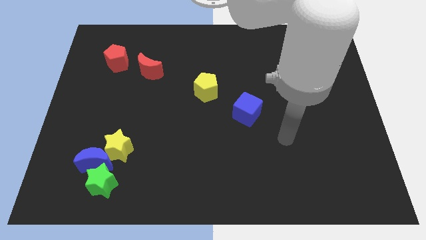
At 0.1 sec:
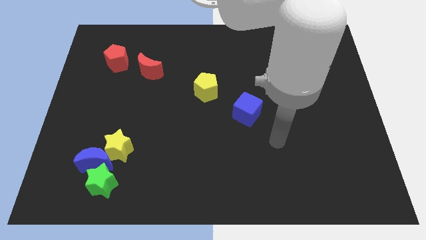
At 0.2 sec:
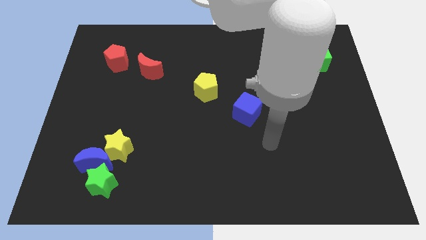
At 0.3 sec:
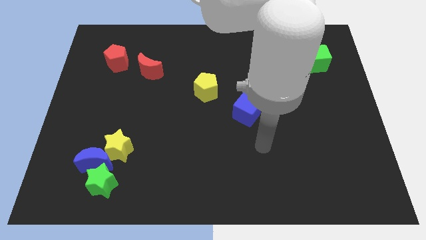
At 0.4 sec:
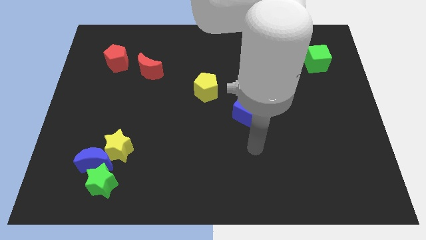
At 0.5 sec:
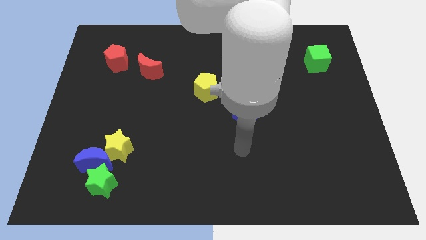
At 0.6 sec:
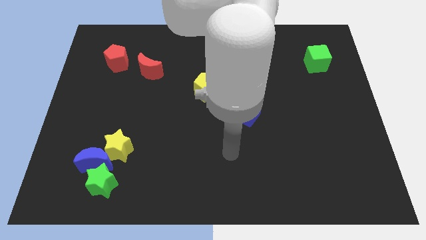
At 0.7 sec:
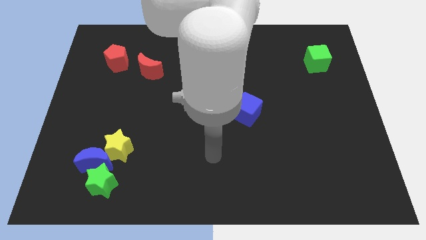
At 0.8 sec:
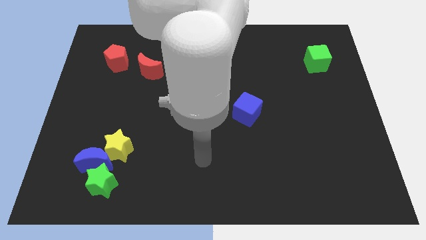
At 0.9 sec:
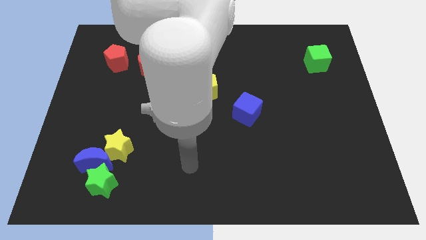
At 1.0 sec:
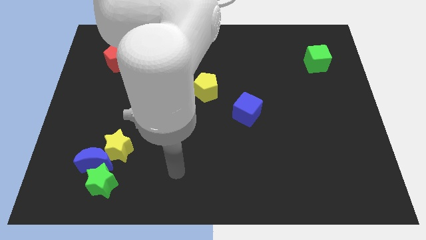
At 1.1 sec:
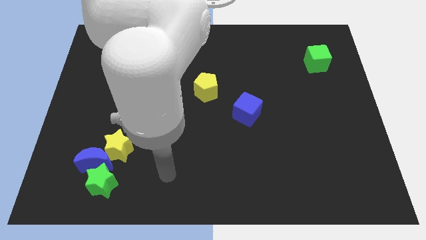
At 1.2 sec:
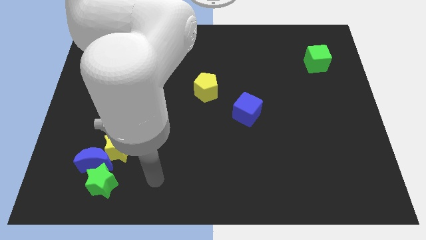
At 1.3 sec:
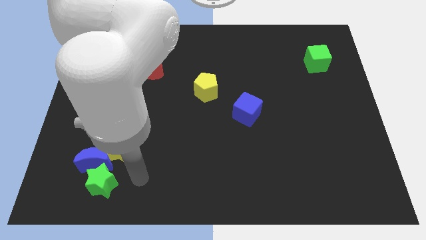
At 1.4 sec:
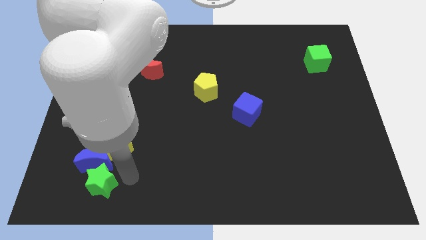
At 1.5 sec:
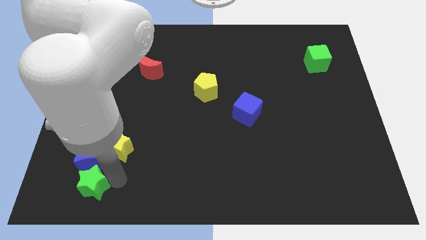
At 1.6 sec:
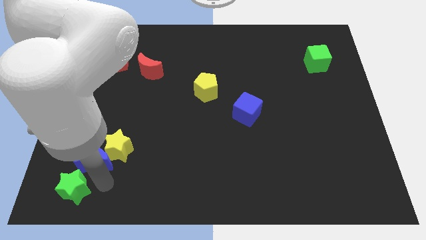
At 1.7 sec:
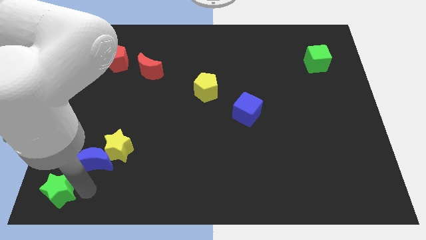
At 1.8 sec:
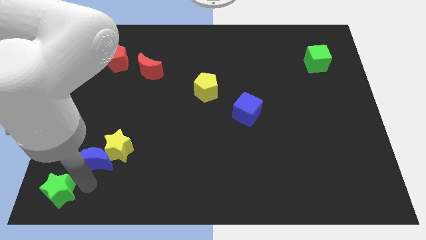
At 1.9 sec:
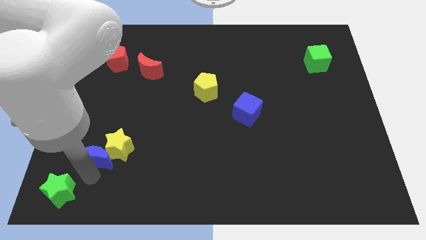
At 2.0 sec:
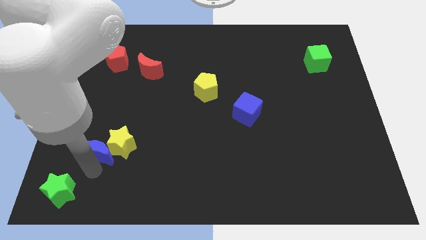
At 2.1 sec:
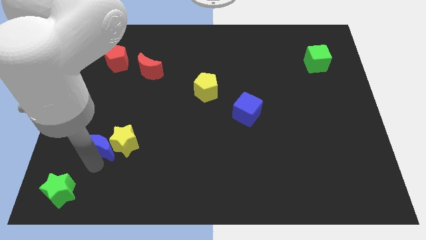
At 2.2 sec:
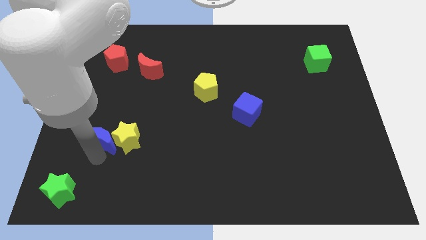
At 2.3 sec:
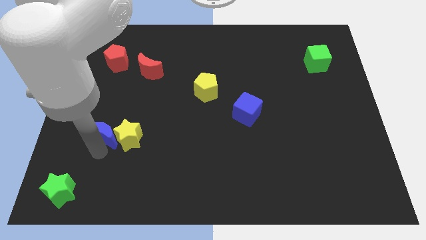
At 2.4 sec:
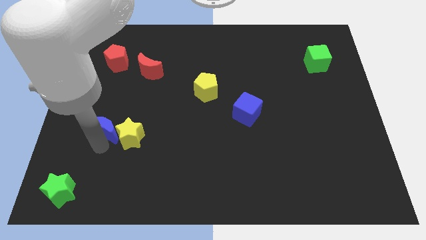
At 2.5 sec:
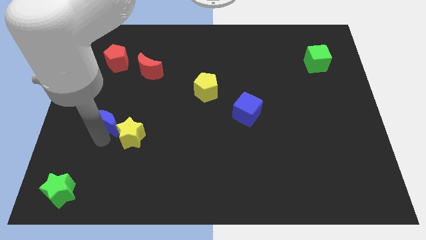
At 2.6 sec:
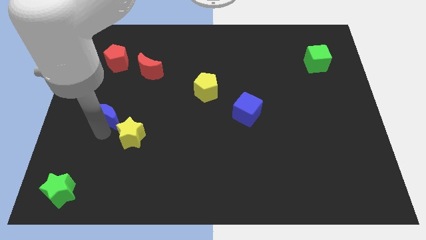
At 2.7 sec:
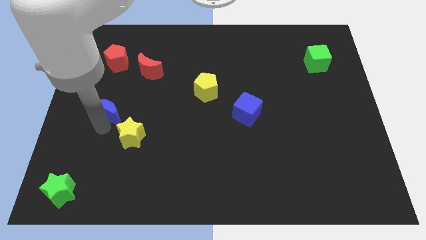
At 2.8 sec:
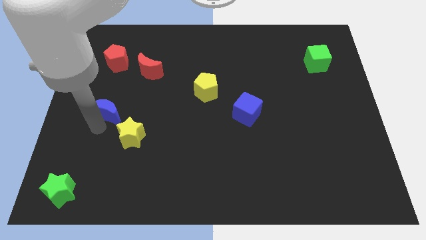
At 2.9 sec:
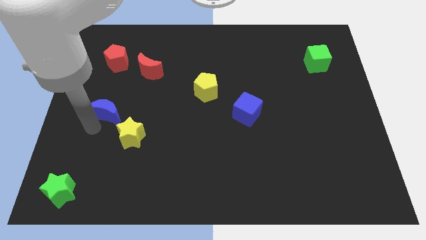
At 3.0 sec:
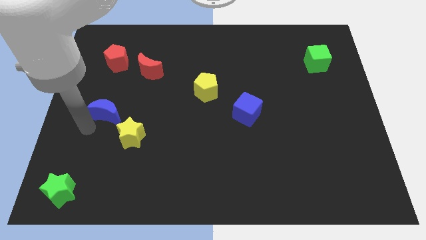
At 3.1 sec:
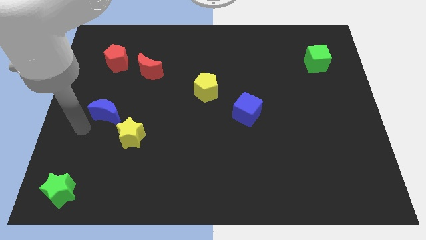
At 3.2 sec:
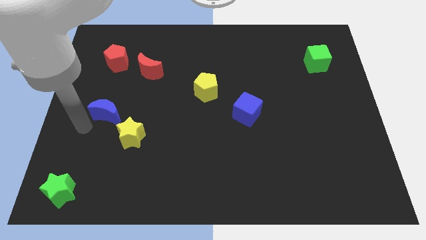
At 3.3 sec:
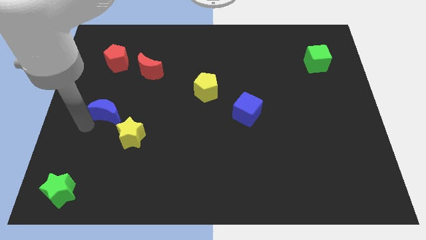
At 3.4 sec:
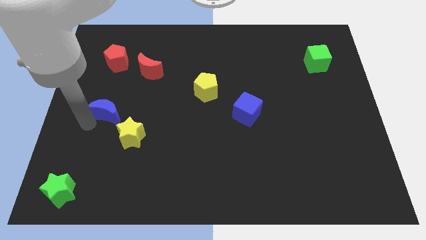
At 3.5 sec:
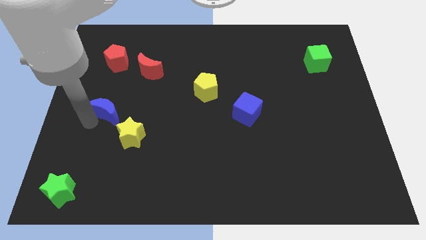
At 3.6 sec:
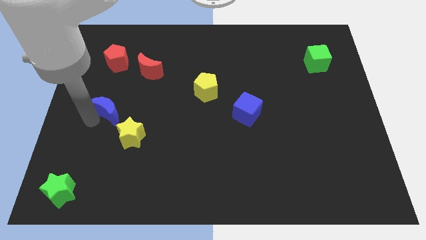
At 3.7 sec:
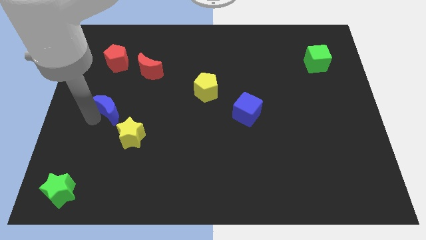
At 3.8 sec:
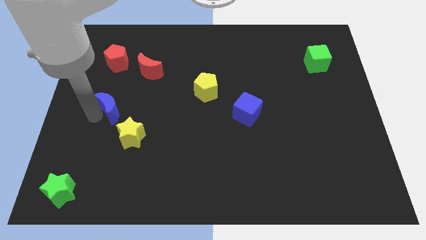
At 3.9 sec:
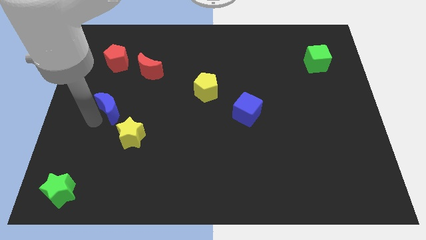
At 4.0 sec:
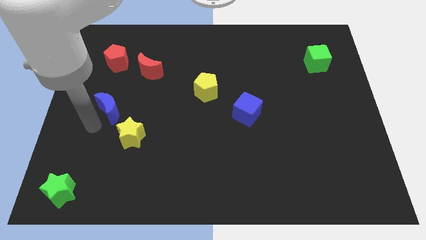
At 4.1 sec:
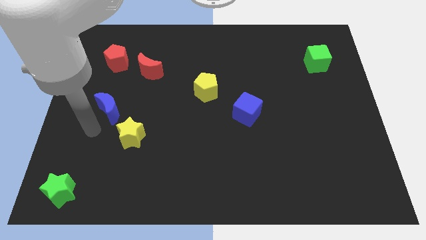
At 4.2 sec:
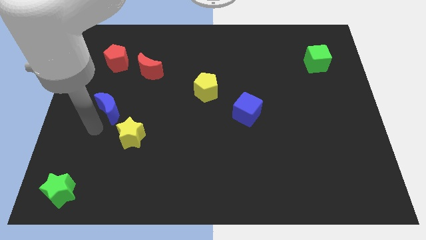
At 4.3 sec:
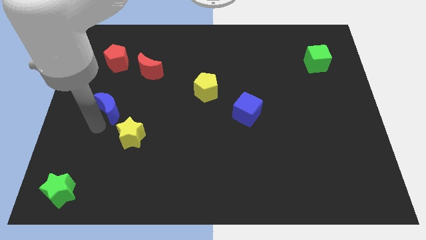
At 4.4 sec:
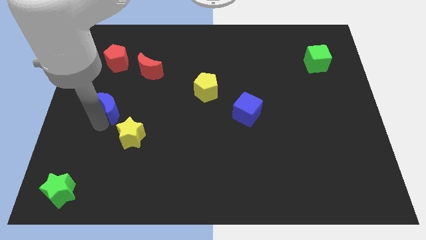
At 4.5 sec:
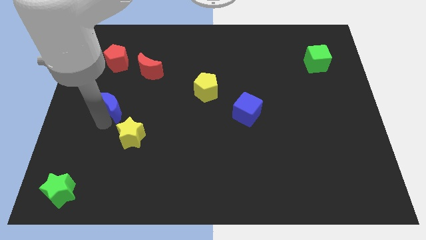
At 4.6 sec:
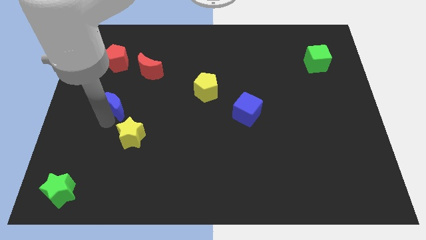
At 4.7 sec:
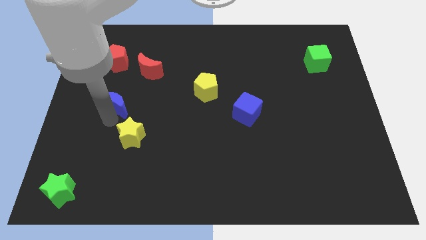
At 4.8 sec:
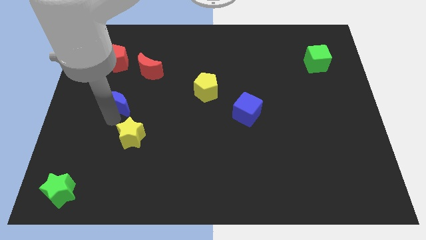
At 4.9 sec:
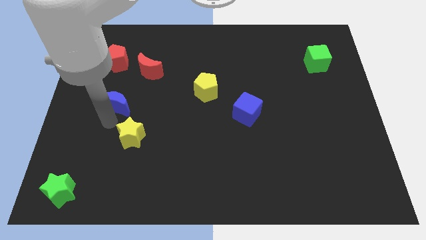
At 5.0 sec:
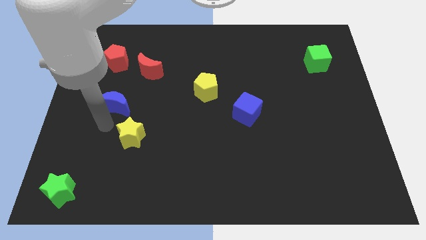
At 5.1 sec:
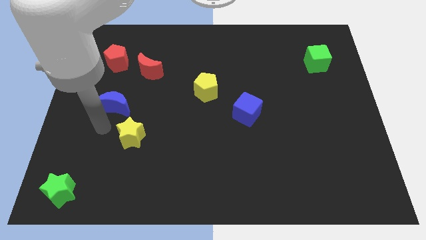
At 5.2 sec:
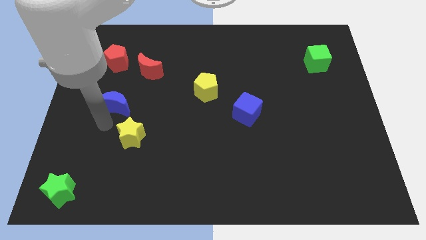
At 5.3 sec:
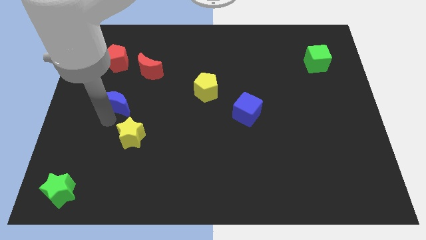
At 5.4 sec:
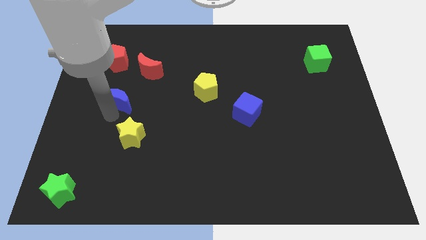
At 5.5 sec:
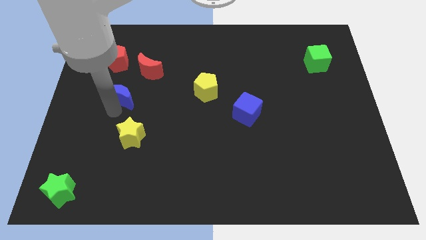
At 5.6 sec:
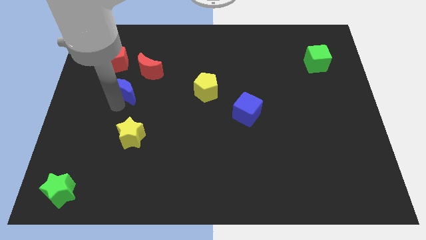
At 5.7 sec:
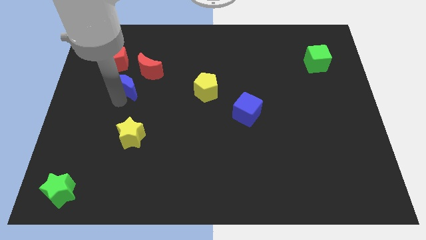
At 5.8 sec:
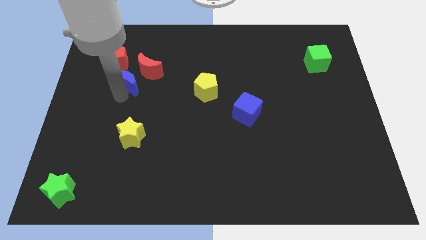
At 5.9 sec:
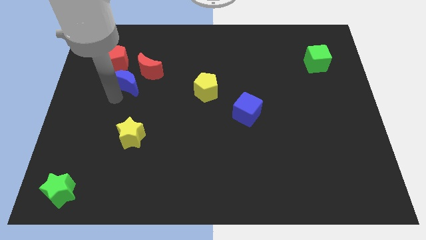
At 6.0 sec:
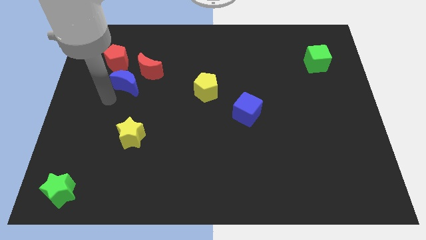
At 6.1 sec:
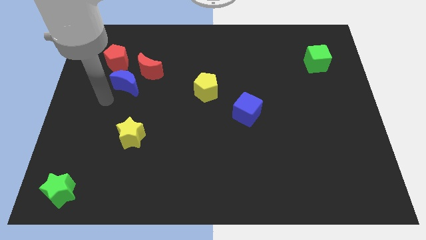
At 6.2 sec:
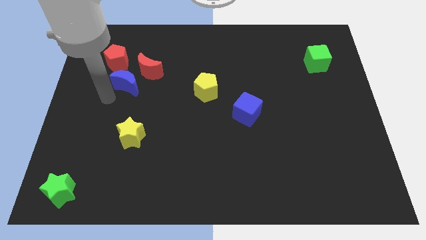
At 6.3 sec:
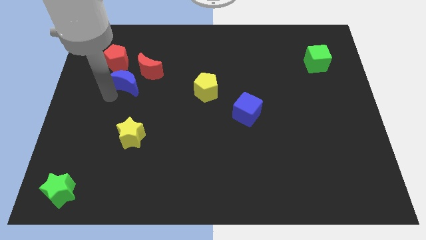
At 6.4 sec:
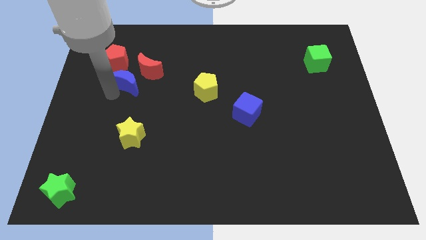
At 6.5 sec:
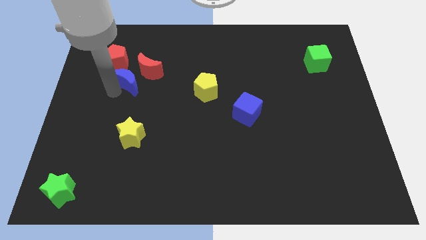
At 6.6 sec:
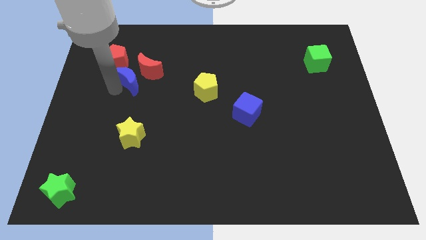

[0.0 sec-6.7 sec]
slide the blue moon to the red moon
